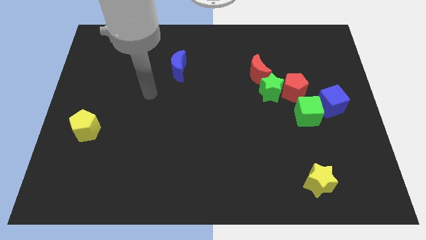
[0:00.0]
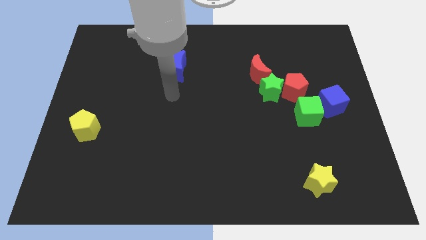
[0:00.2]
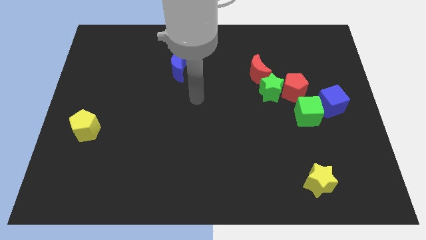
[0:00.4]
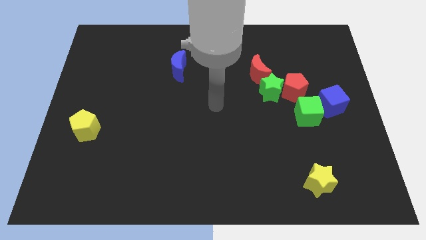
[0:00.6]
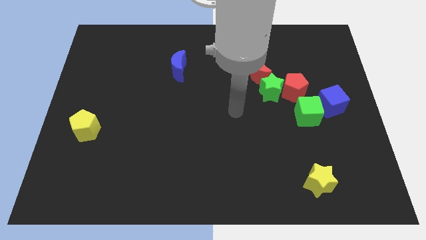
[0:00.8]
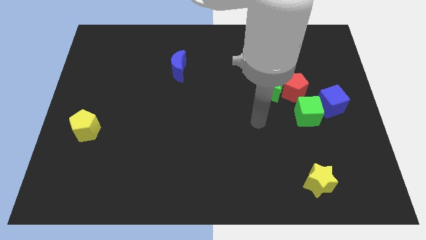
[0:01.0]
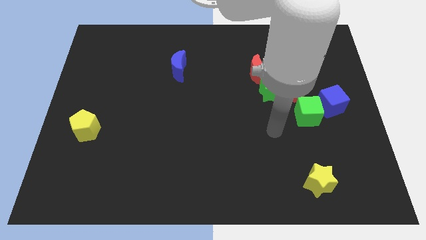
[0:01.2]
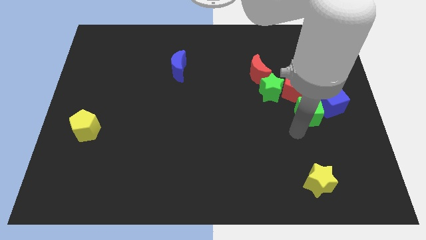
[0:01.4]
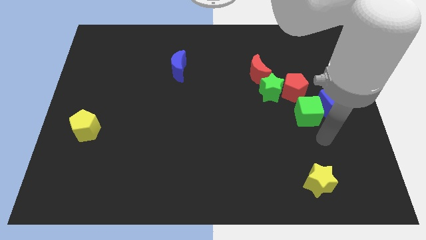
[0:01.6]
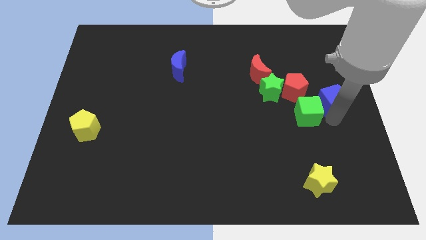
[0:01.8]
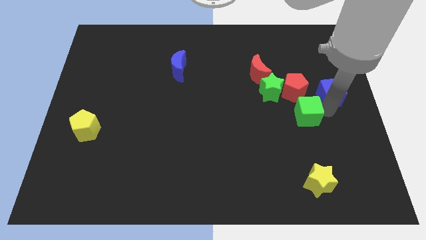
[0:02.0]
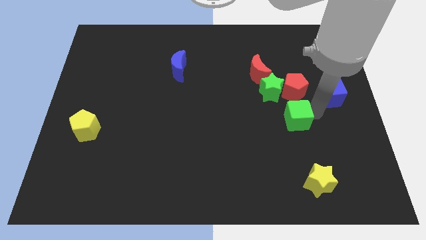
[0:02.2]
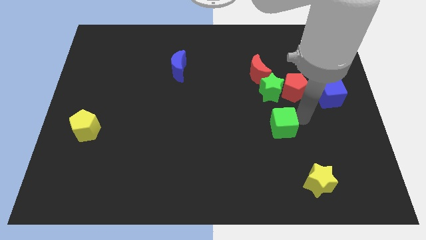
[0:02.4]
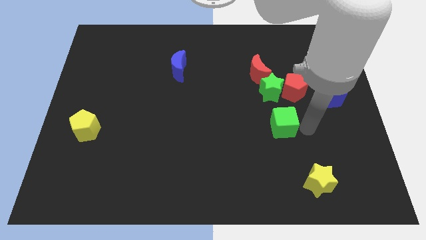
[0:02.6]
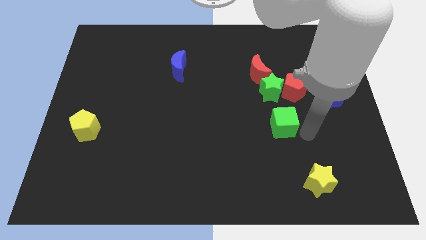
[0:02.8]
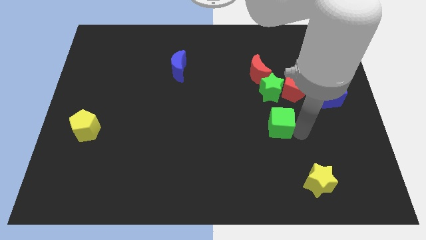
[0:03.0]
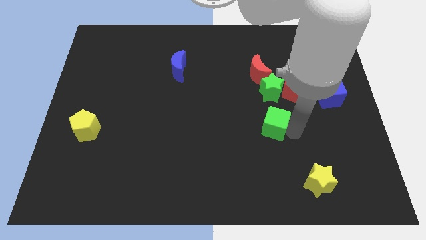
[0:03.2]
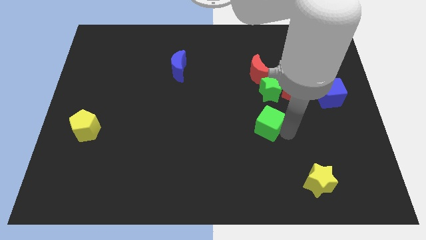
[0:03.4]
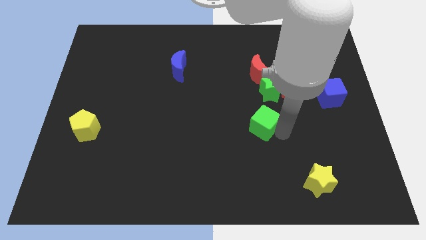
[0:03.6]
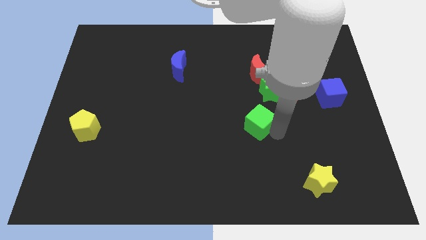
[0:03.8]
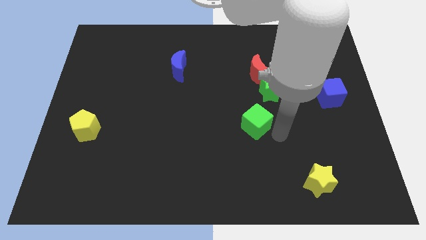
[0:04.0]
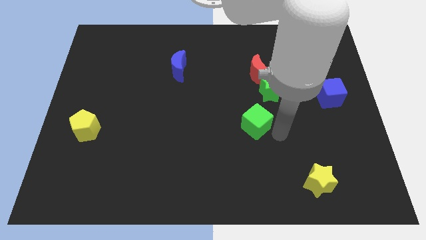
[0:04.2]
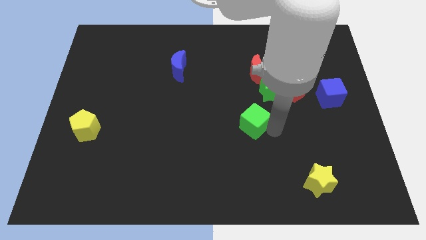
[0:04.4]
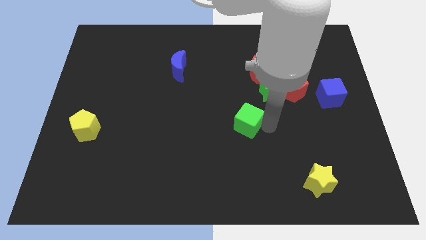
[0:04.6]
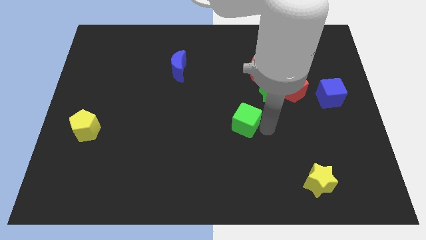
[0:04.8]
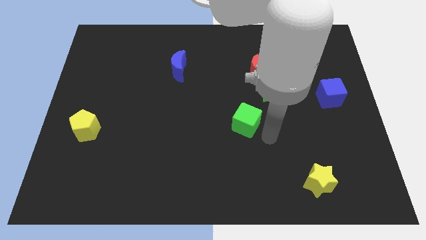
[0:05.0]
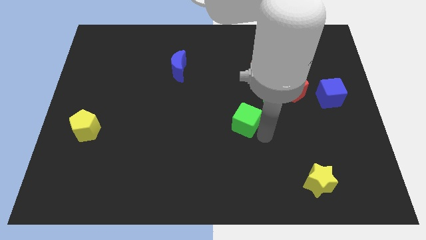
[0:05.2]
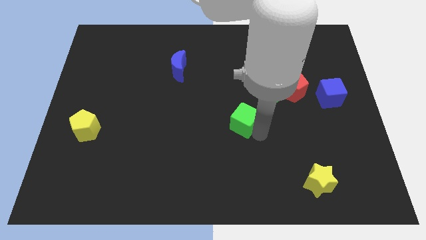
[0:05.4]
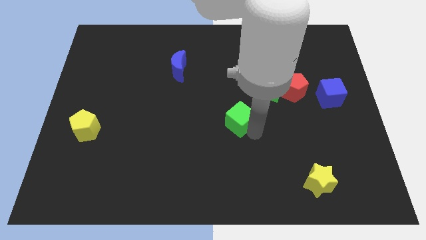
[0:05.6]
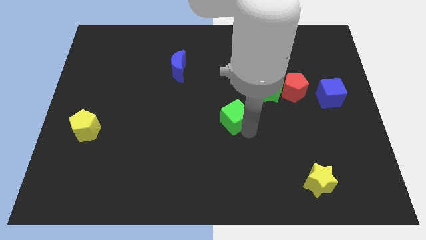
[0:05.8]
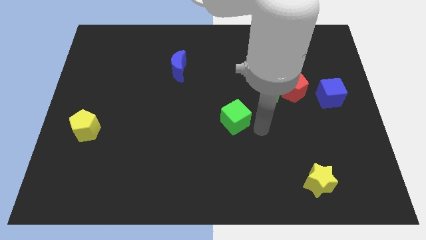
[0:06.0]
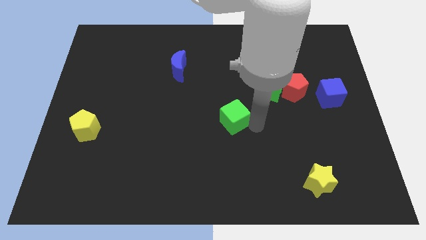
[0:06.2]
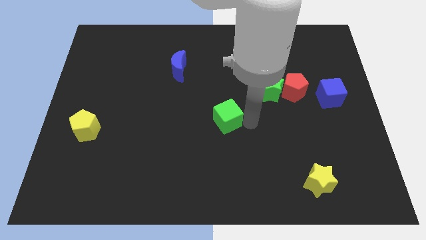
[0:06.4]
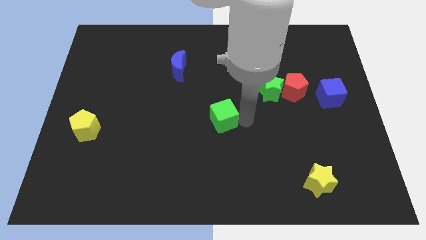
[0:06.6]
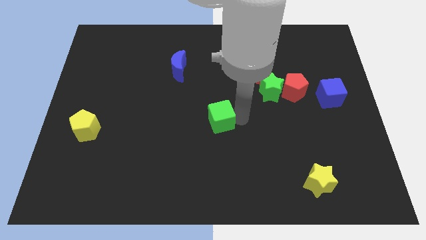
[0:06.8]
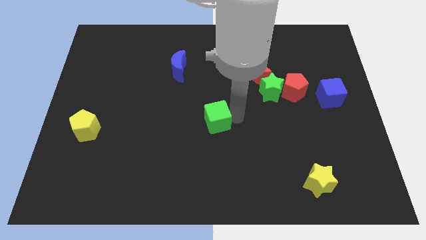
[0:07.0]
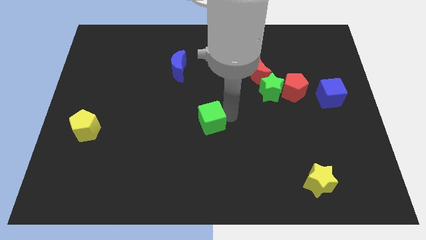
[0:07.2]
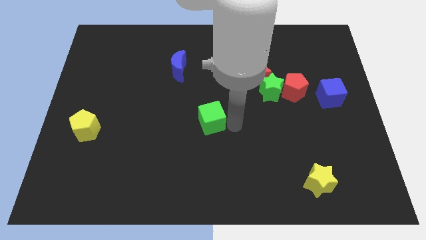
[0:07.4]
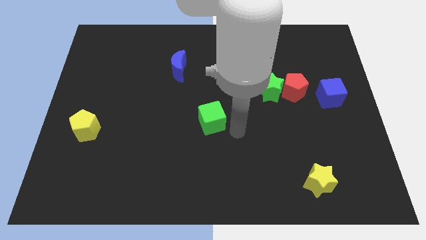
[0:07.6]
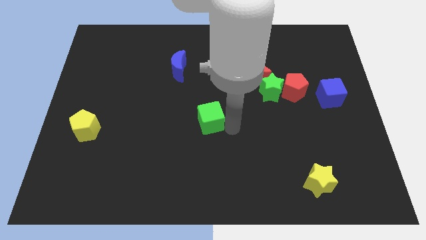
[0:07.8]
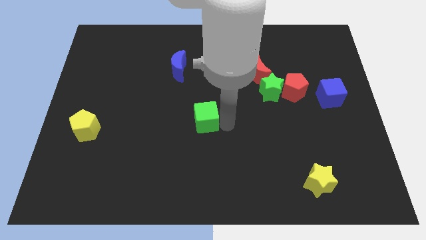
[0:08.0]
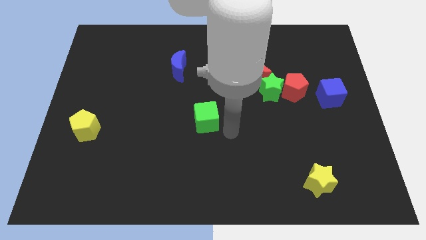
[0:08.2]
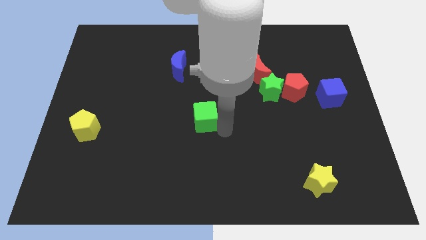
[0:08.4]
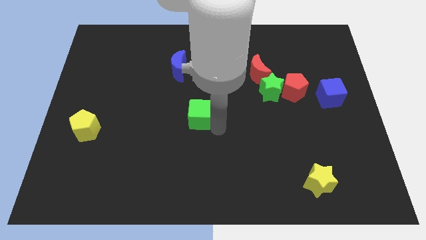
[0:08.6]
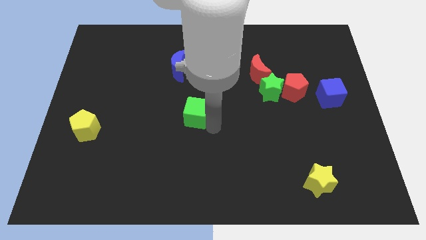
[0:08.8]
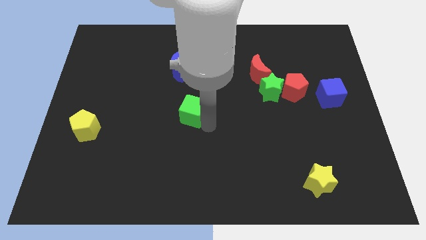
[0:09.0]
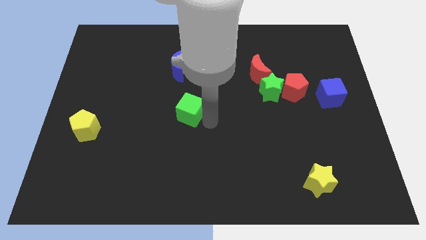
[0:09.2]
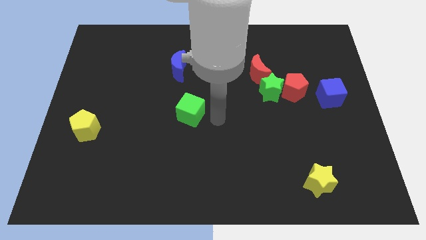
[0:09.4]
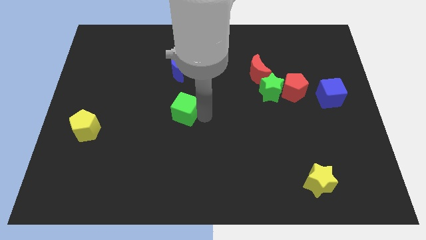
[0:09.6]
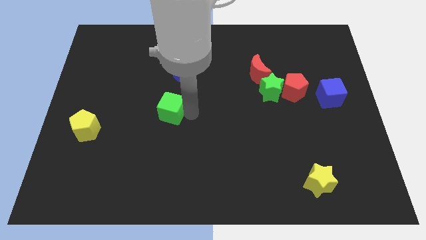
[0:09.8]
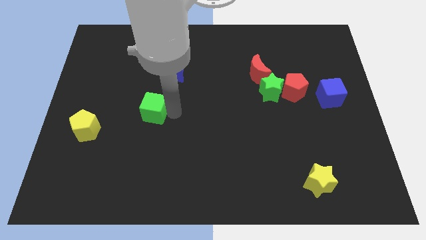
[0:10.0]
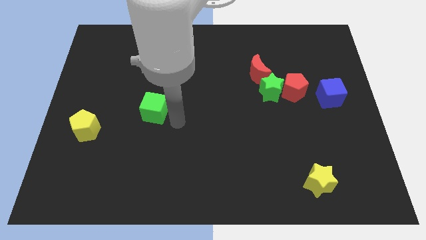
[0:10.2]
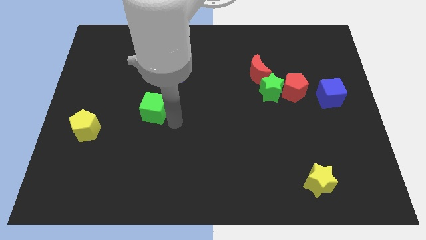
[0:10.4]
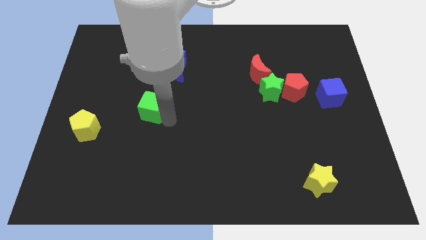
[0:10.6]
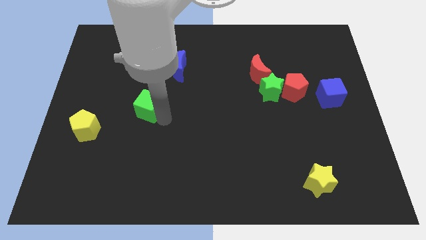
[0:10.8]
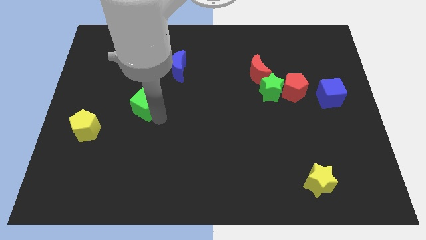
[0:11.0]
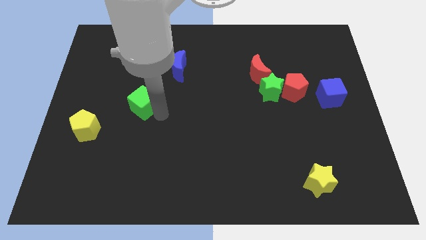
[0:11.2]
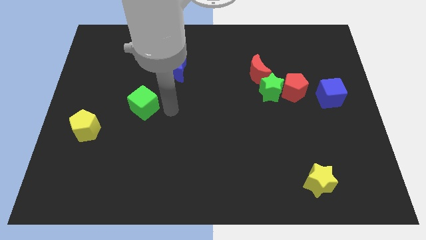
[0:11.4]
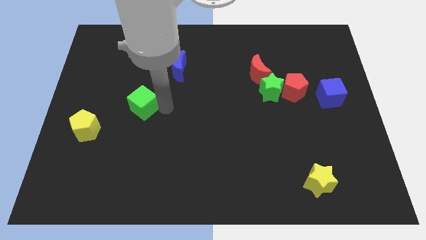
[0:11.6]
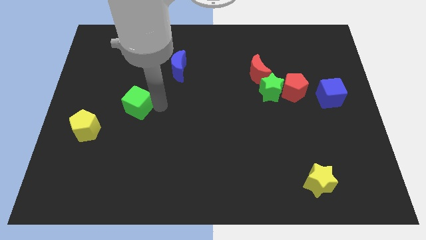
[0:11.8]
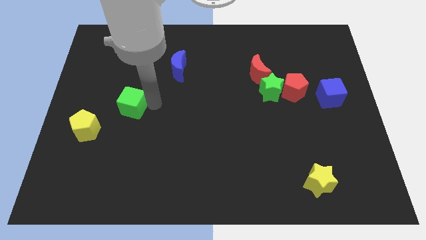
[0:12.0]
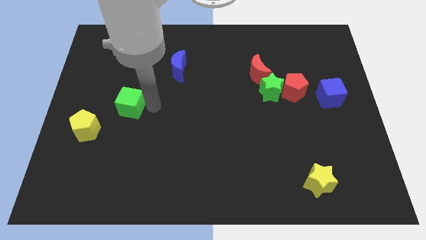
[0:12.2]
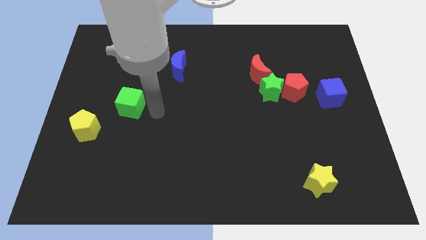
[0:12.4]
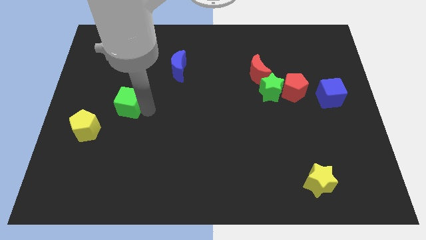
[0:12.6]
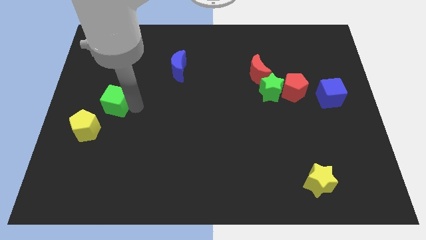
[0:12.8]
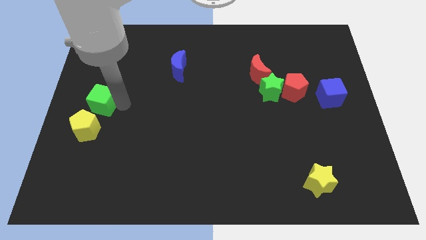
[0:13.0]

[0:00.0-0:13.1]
move the green cube to the left side of the board
